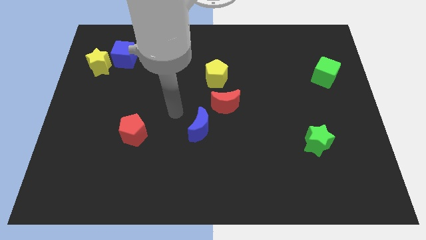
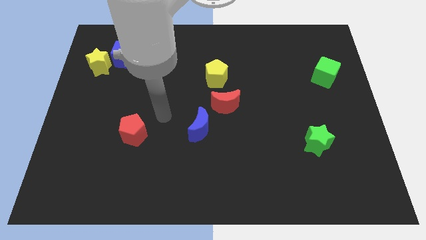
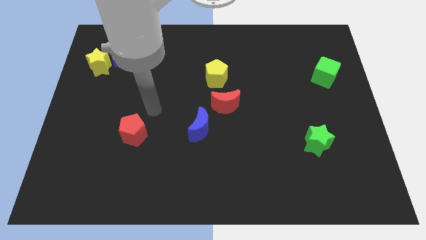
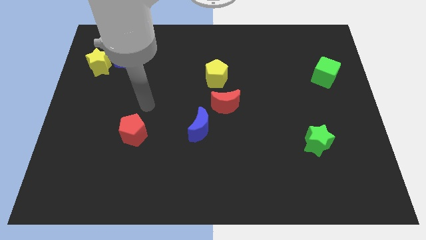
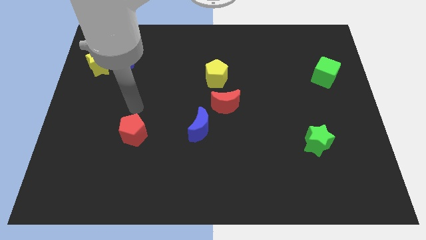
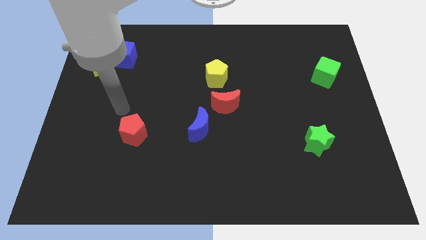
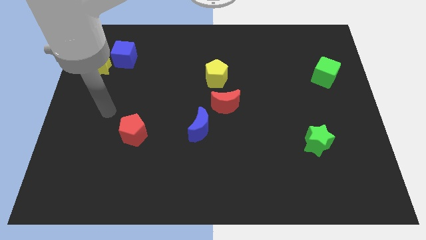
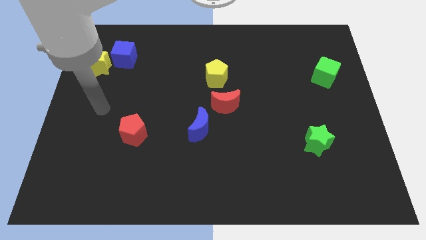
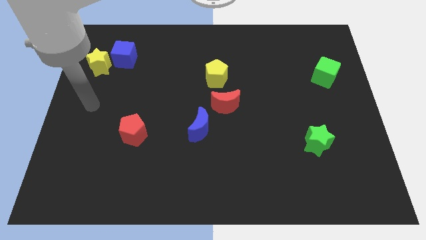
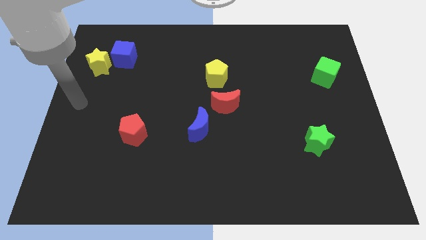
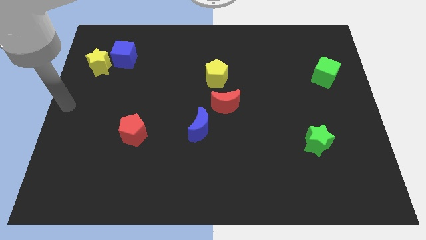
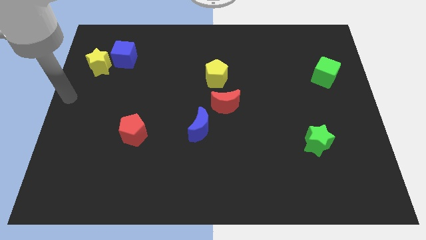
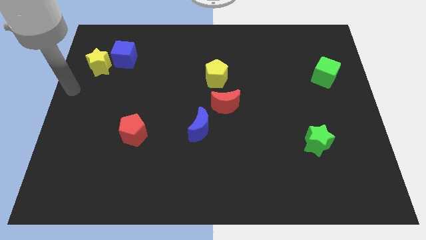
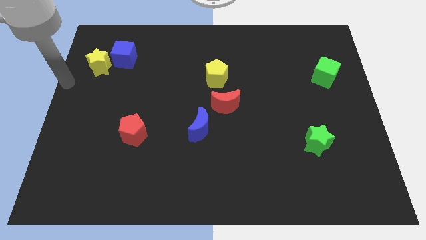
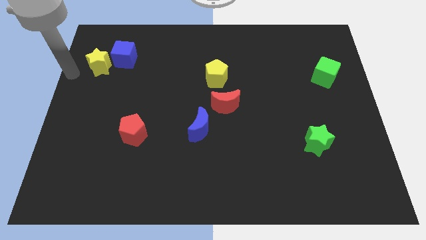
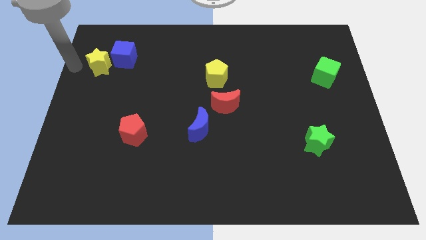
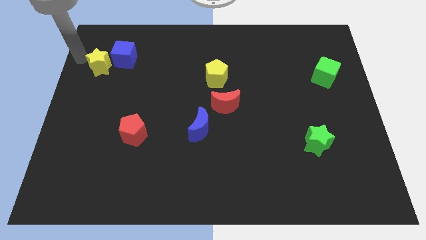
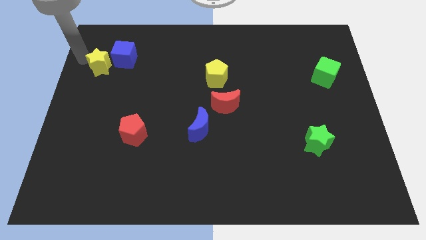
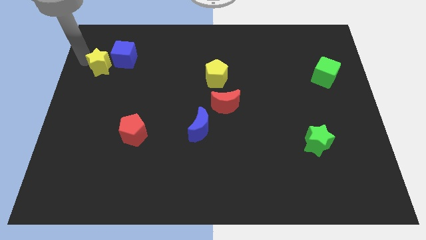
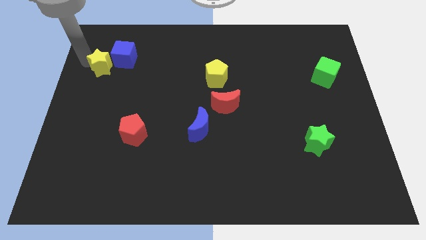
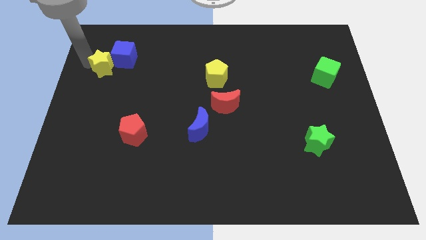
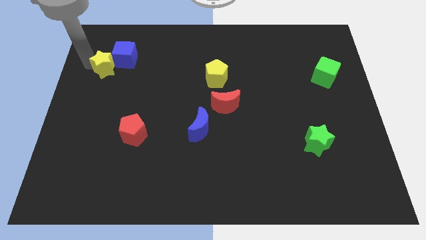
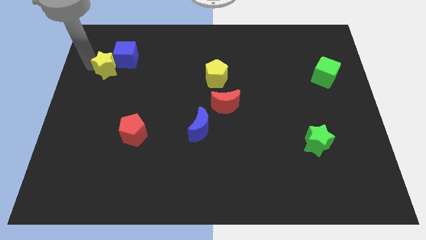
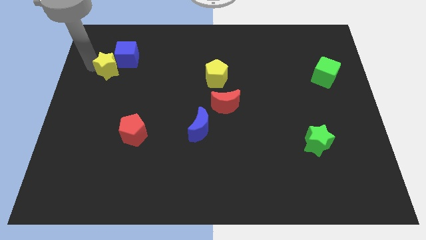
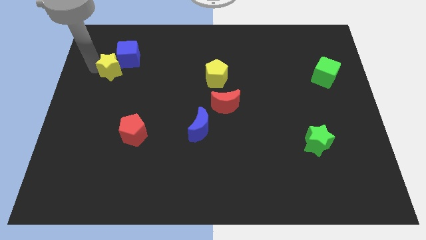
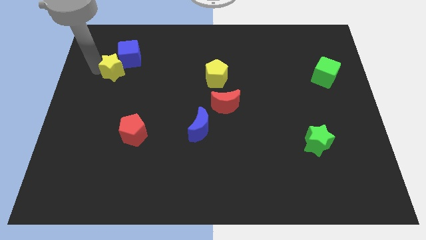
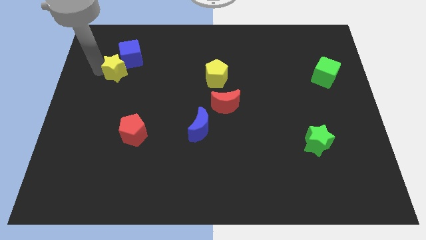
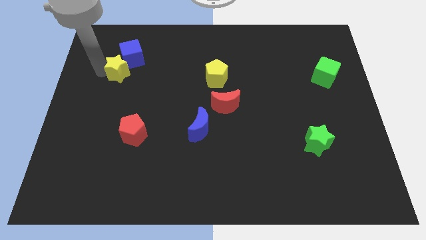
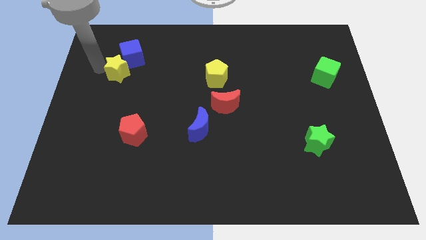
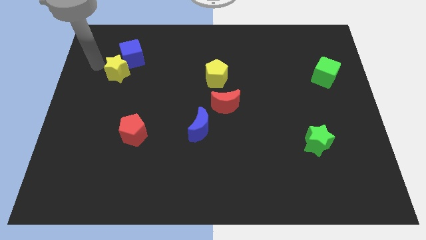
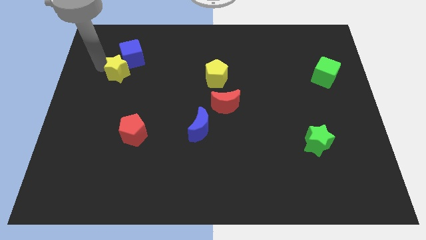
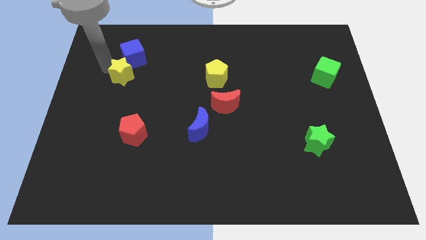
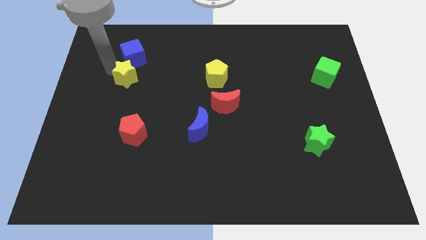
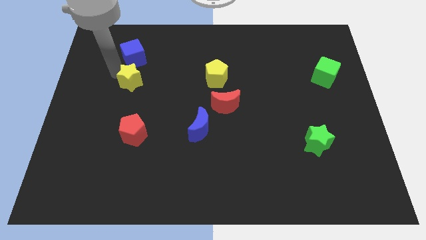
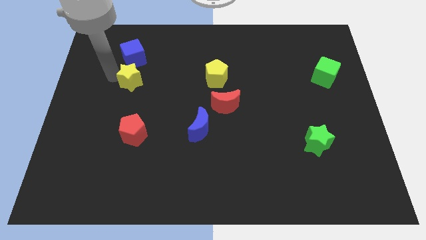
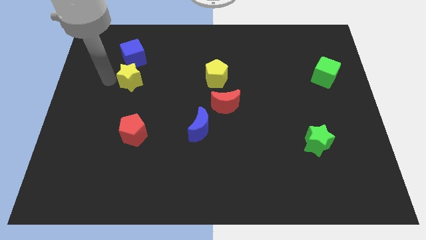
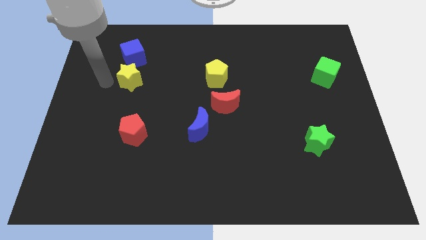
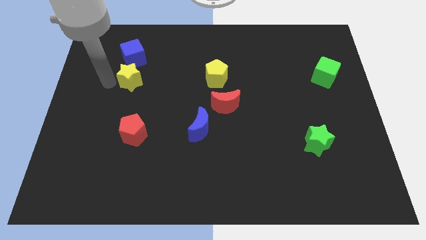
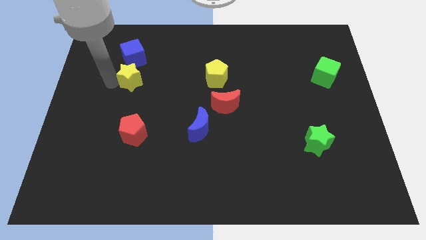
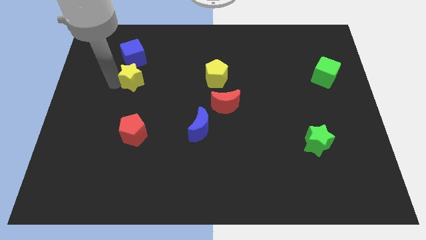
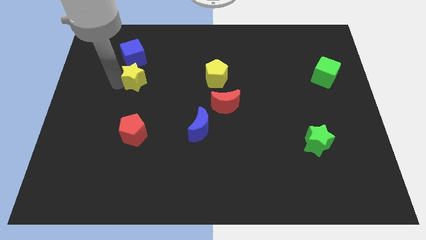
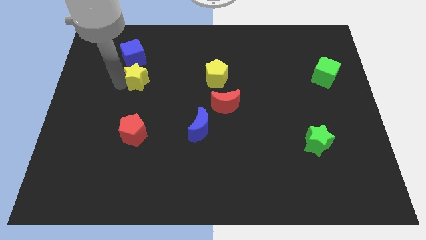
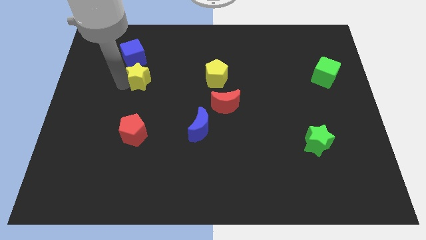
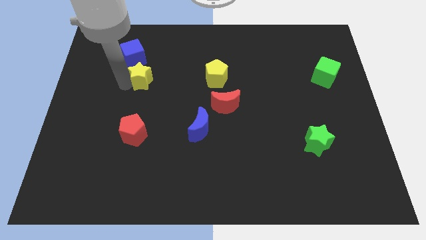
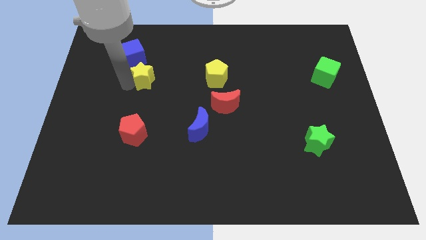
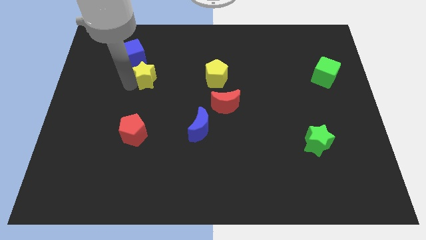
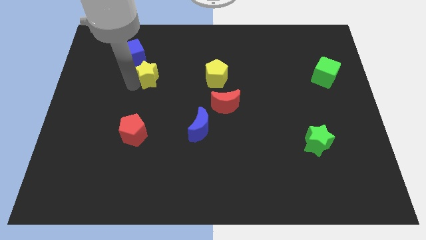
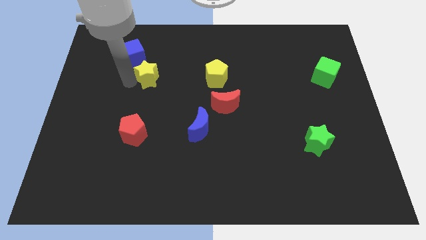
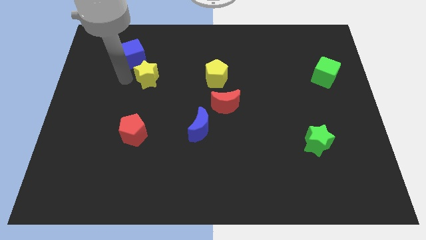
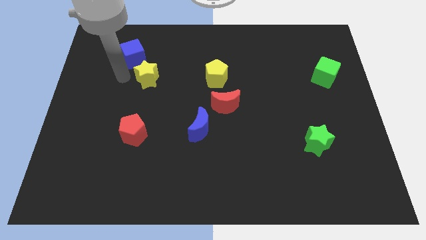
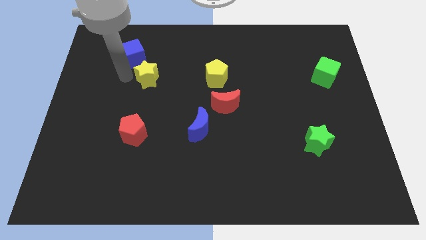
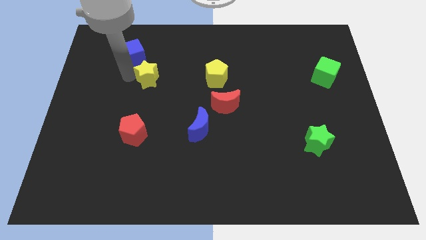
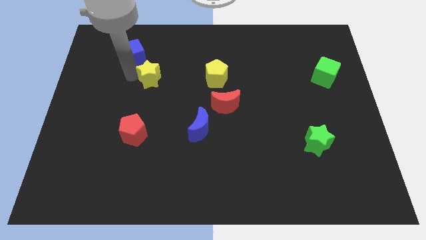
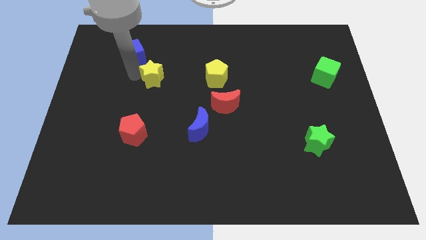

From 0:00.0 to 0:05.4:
put the yellow star just left of the yellow pentagon

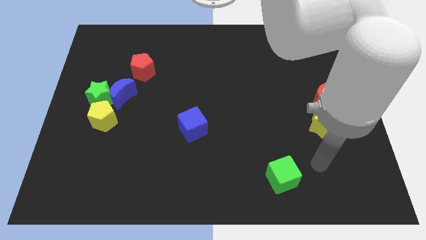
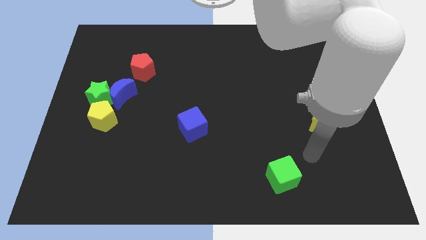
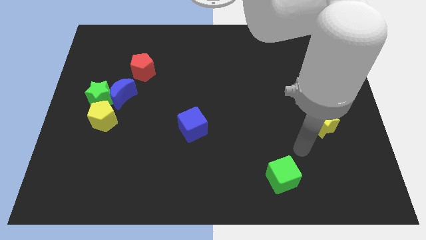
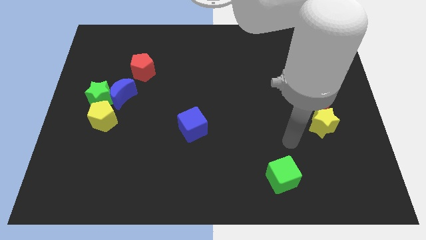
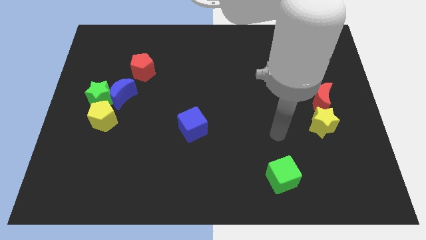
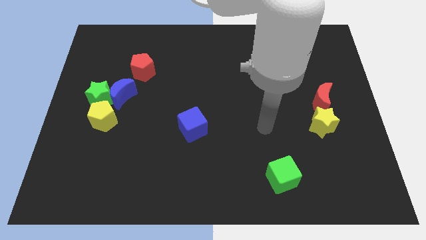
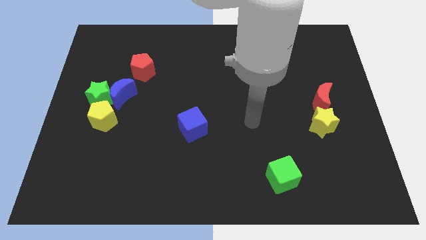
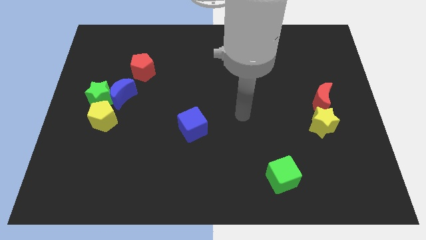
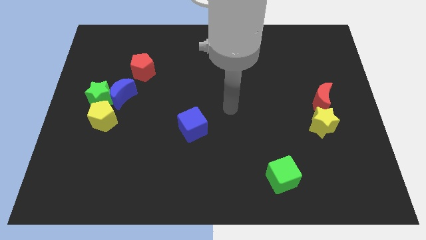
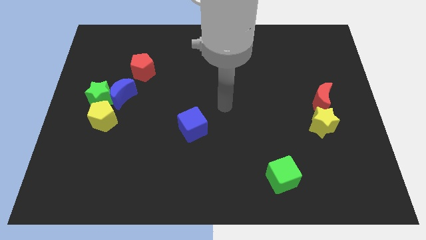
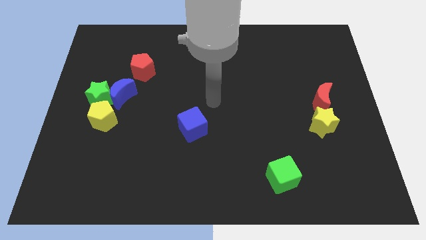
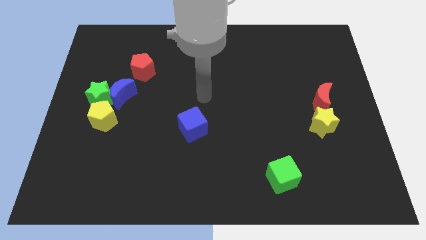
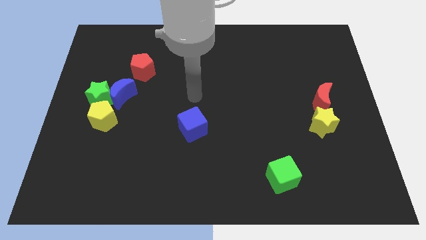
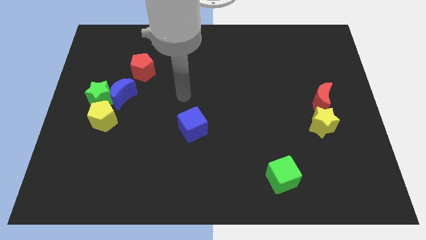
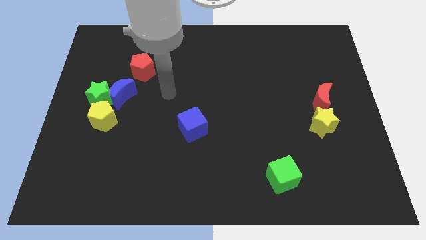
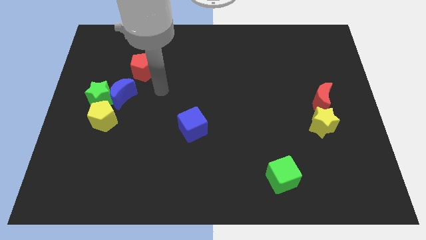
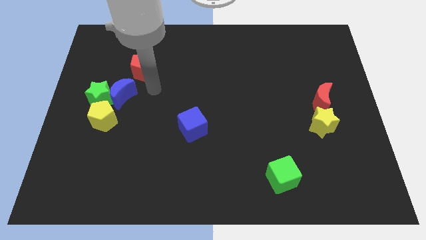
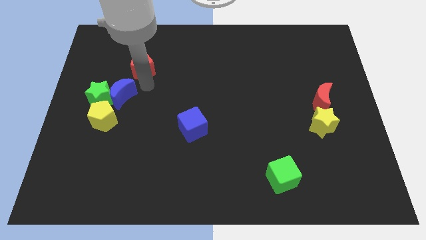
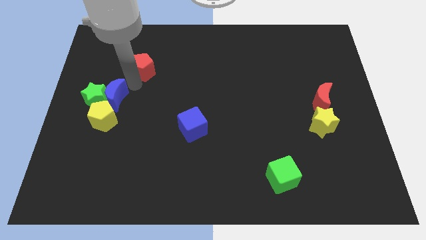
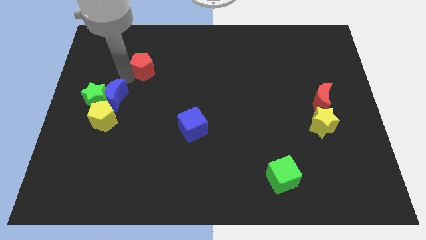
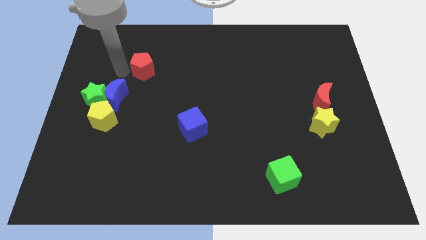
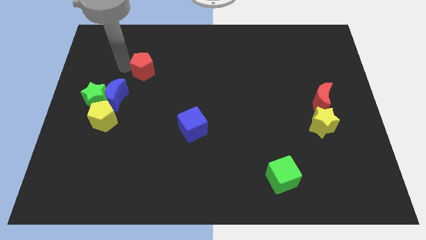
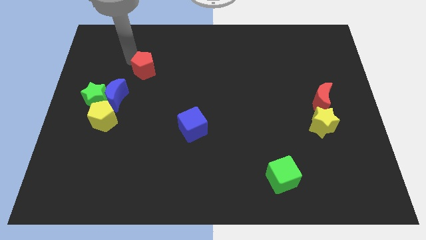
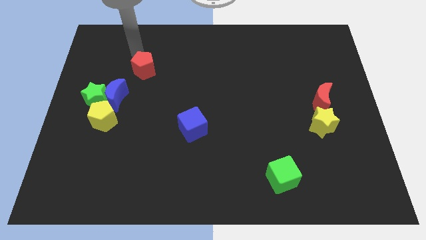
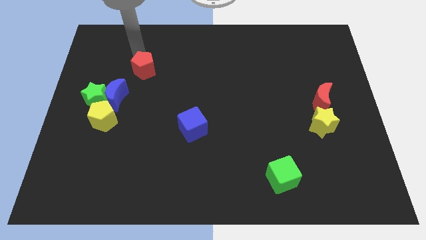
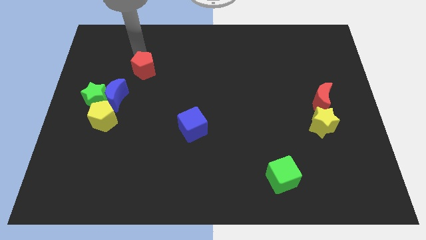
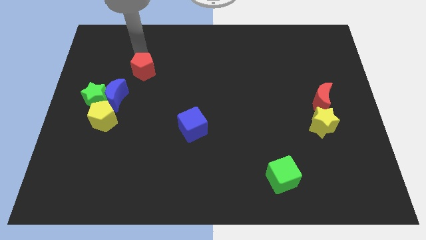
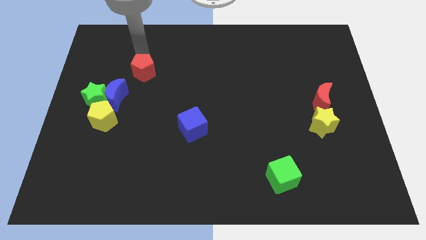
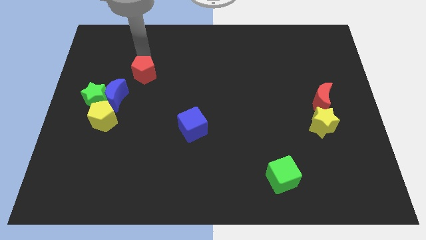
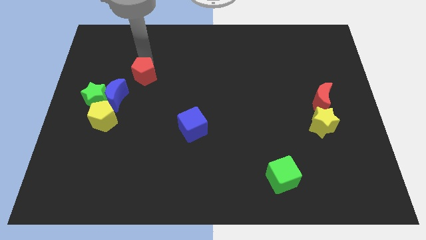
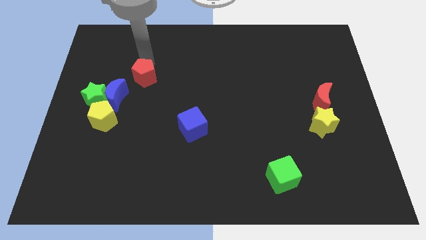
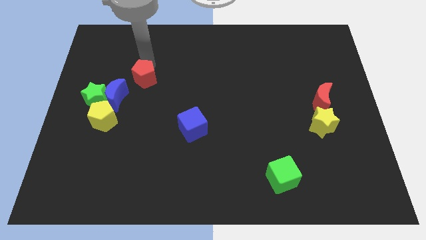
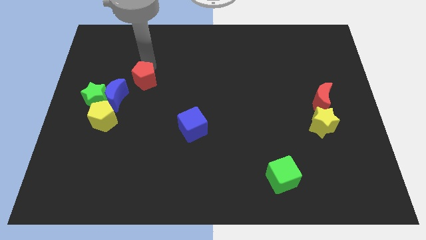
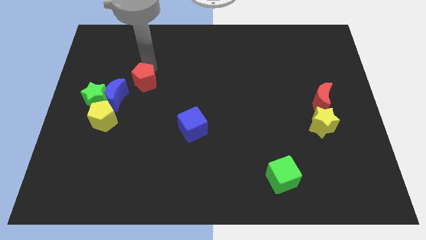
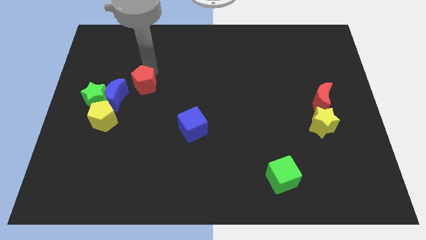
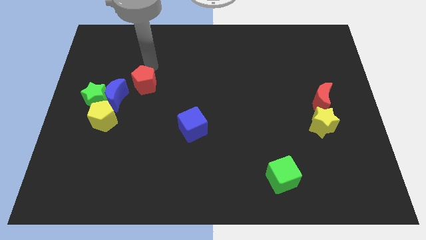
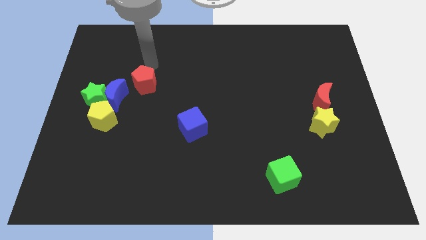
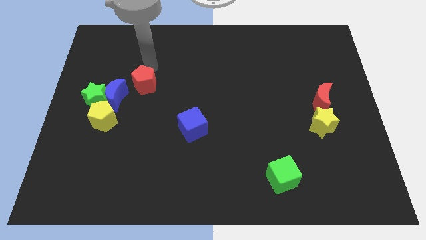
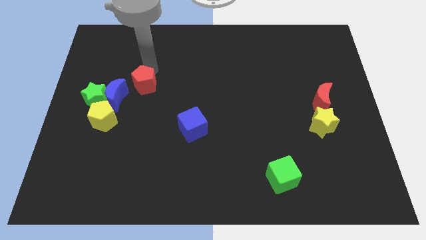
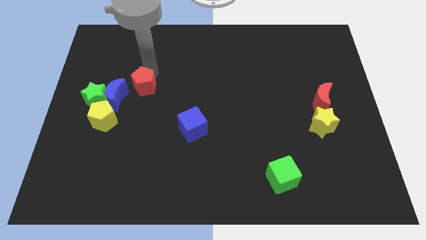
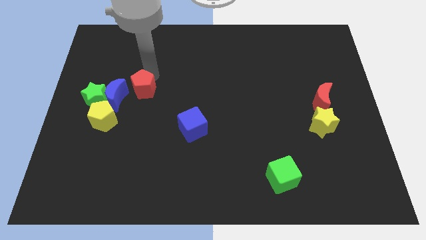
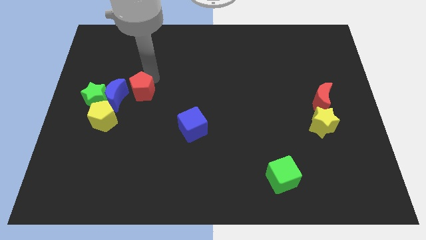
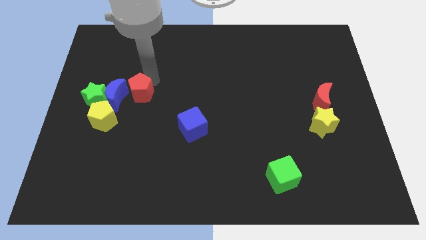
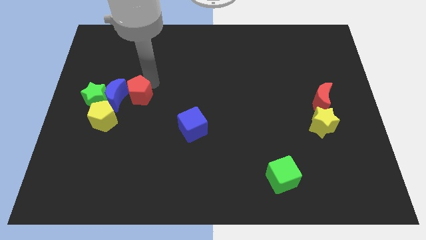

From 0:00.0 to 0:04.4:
move the red pentagon to the bottom right side of the blue moon
